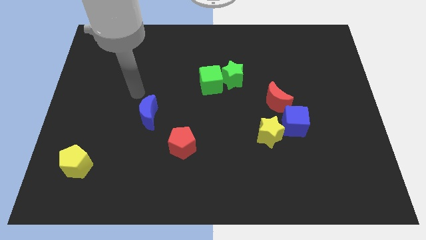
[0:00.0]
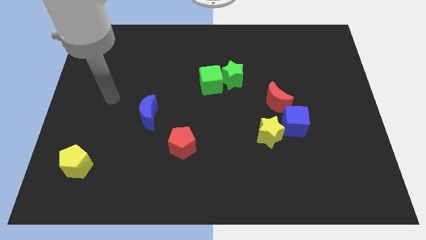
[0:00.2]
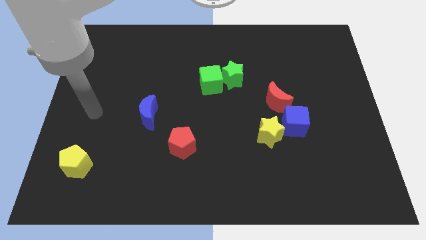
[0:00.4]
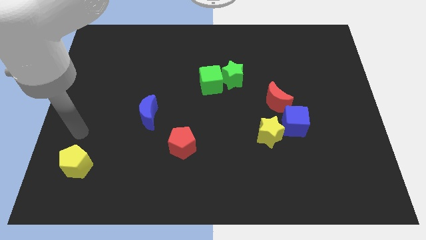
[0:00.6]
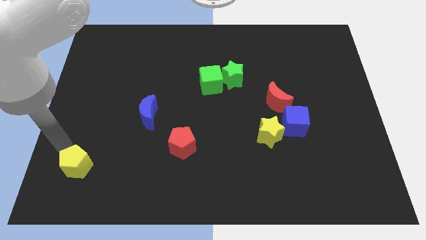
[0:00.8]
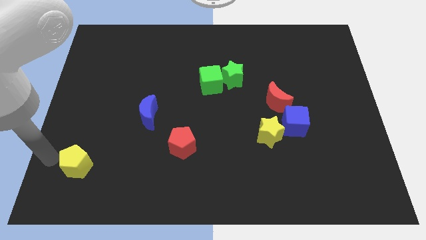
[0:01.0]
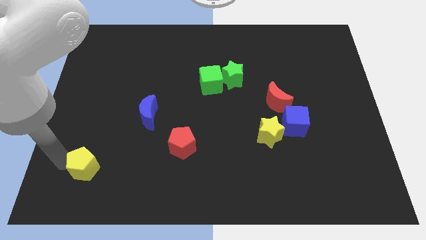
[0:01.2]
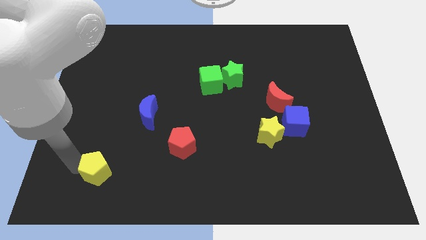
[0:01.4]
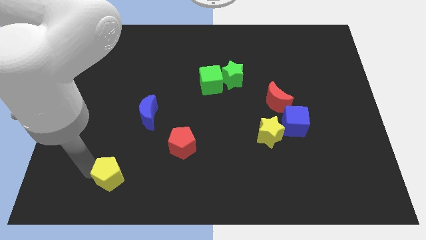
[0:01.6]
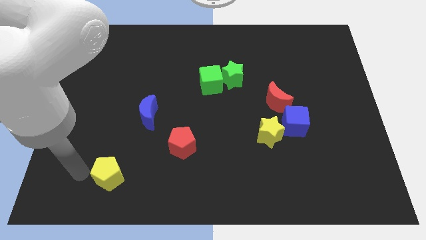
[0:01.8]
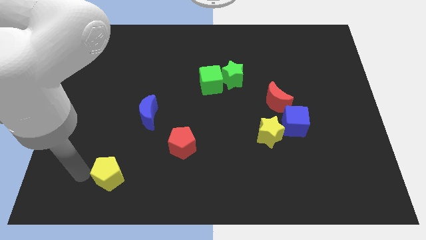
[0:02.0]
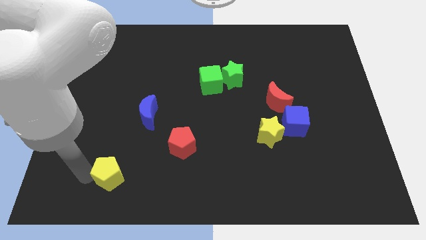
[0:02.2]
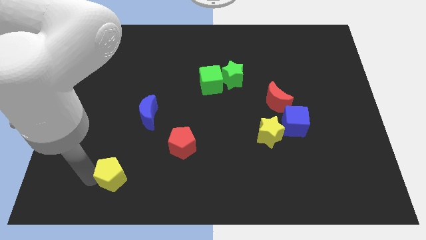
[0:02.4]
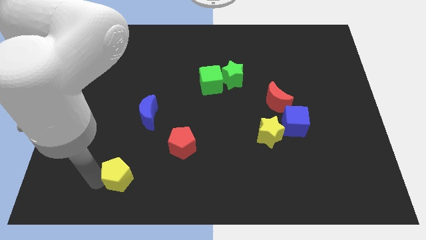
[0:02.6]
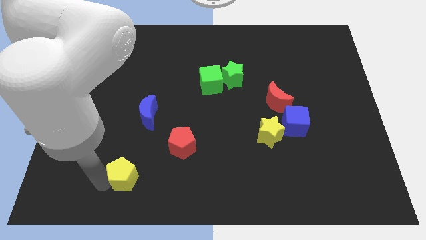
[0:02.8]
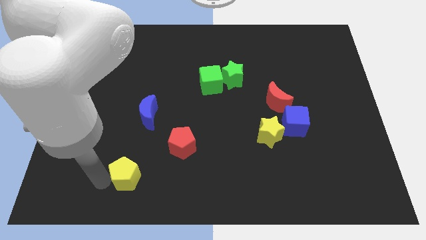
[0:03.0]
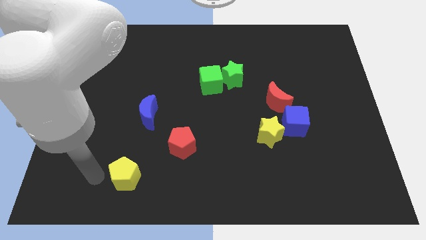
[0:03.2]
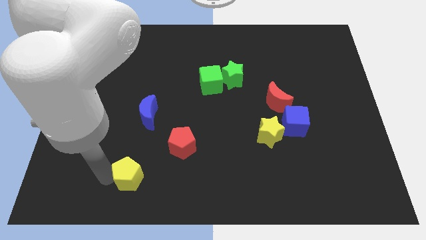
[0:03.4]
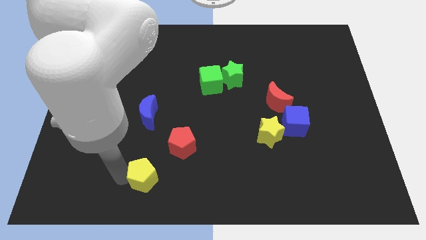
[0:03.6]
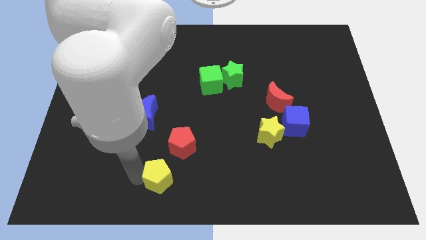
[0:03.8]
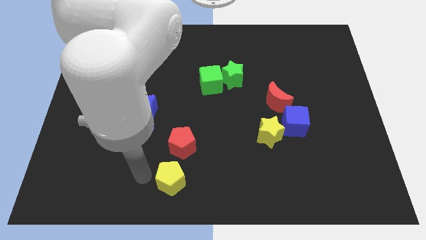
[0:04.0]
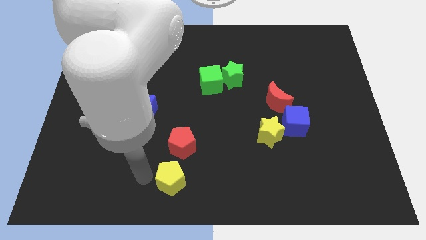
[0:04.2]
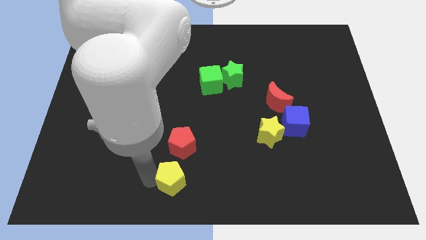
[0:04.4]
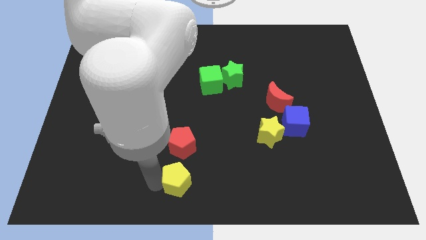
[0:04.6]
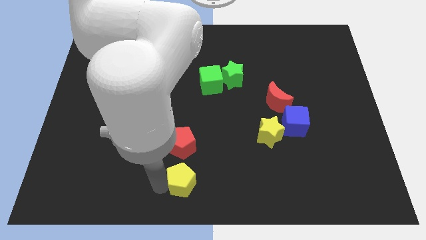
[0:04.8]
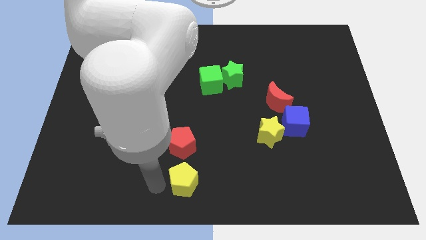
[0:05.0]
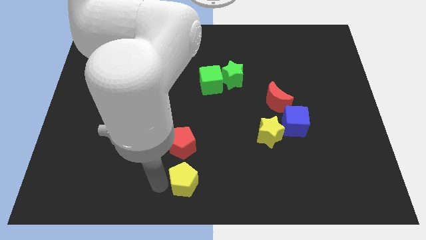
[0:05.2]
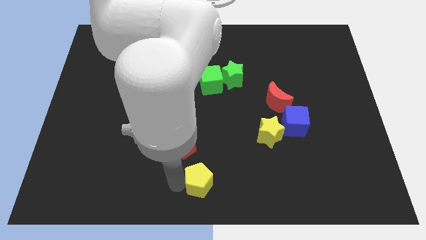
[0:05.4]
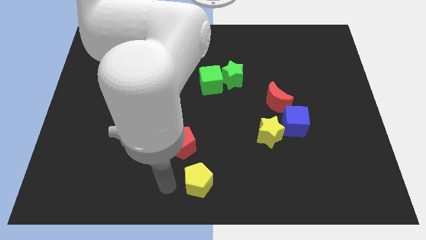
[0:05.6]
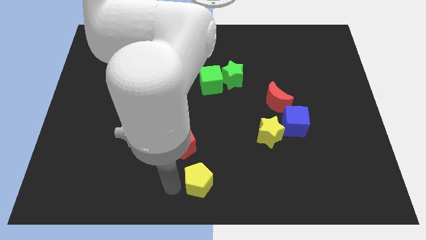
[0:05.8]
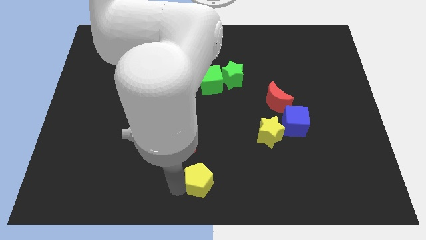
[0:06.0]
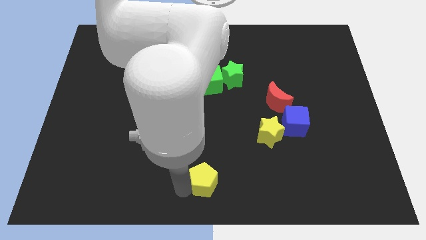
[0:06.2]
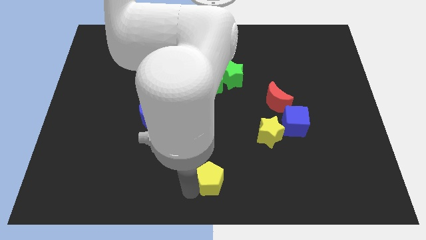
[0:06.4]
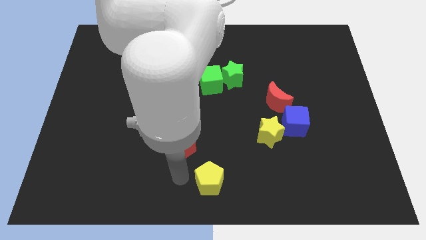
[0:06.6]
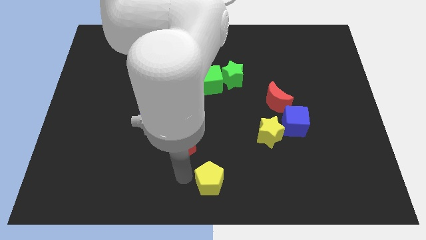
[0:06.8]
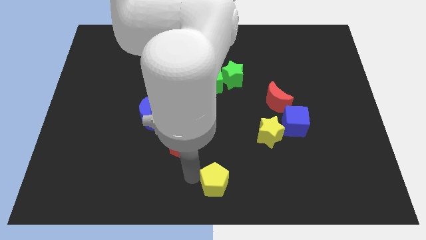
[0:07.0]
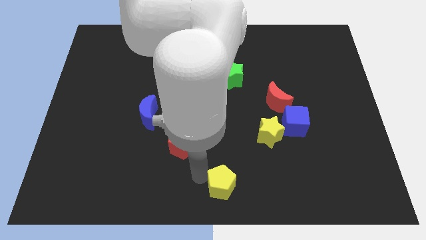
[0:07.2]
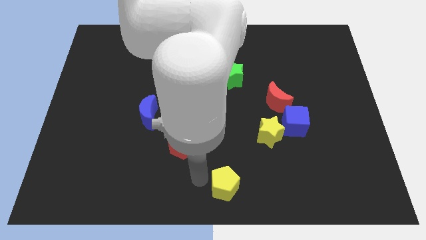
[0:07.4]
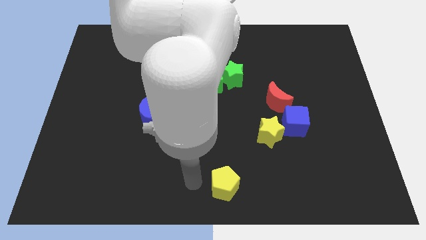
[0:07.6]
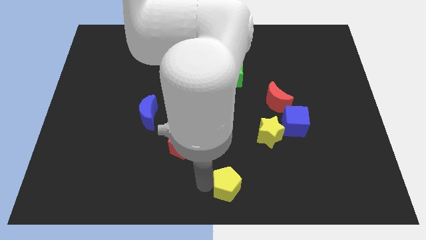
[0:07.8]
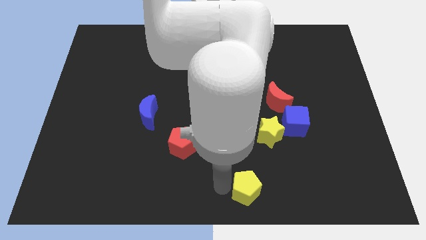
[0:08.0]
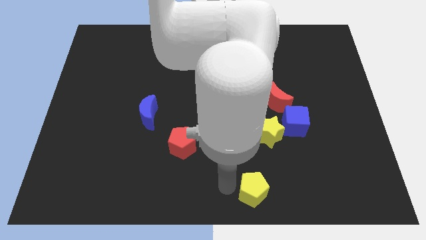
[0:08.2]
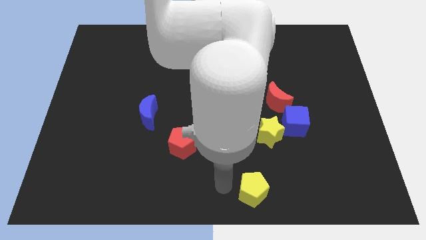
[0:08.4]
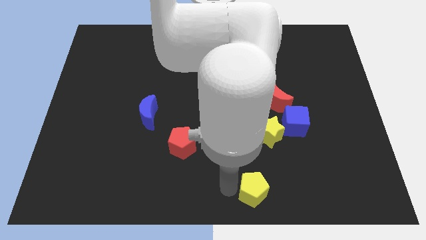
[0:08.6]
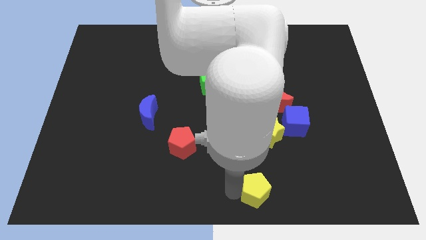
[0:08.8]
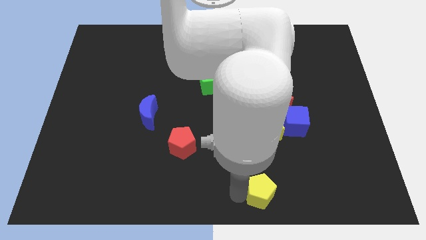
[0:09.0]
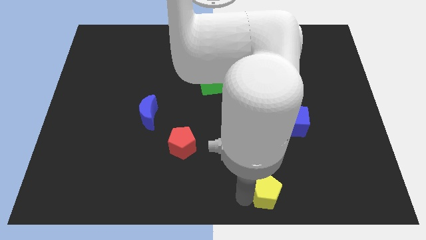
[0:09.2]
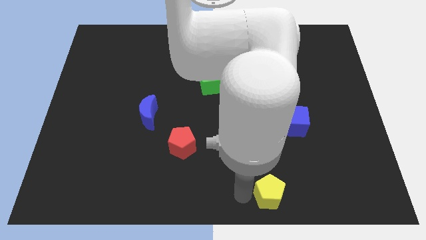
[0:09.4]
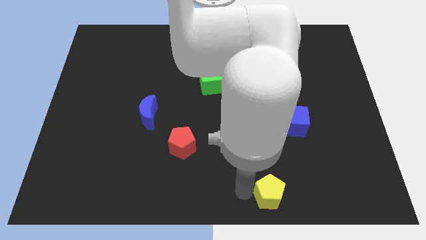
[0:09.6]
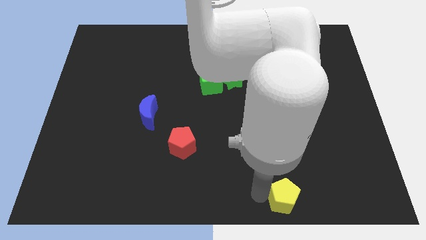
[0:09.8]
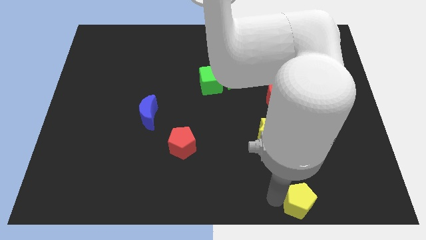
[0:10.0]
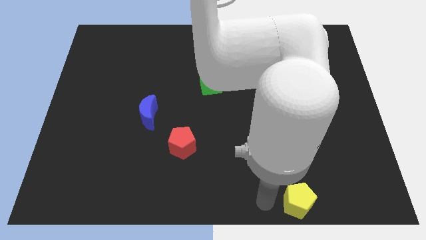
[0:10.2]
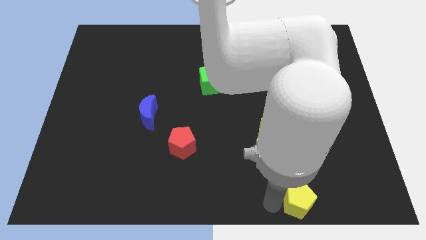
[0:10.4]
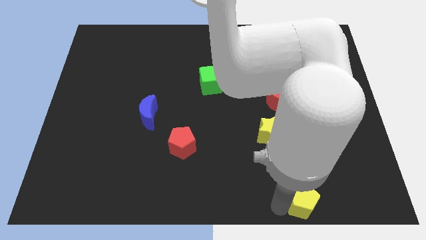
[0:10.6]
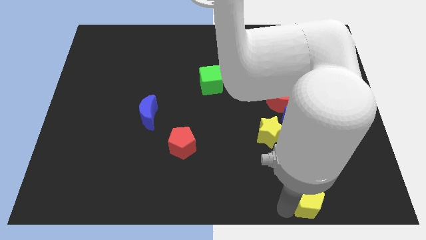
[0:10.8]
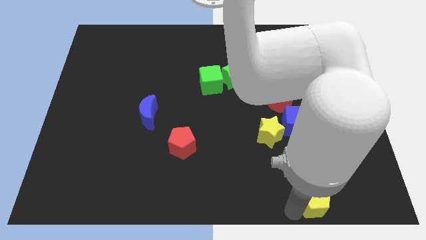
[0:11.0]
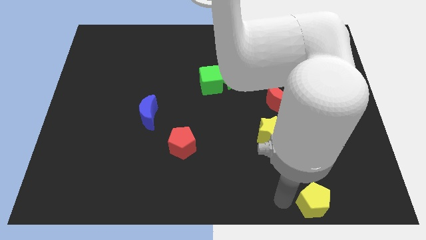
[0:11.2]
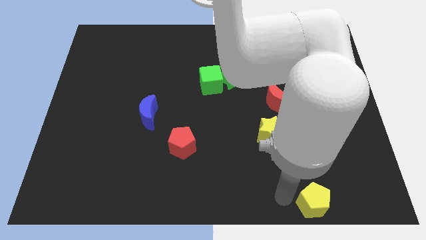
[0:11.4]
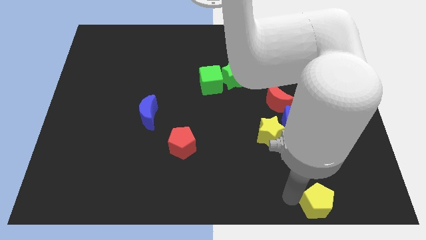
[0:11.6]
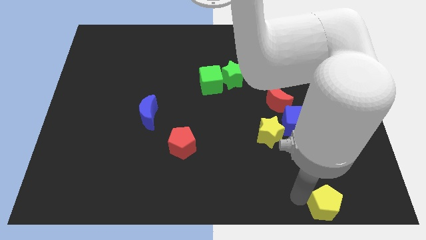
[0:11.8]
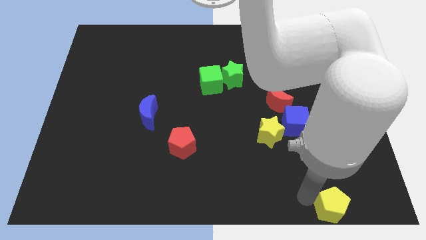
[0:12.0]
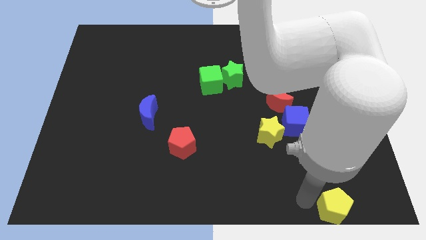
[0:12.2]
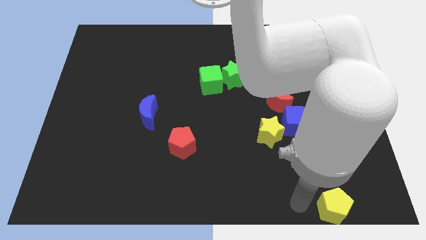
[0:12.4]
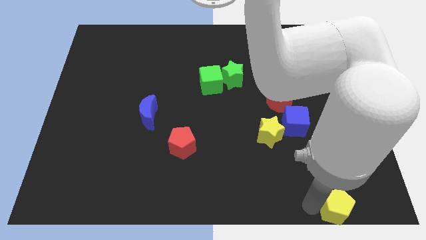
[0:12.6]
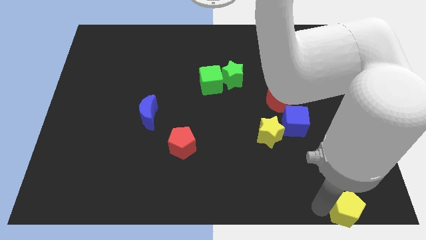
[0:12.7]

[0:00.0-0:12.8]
move the yellow pentagon to the bottom right
